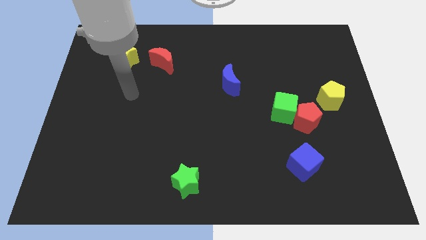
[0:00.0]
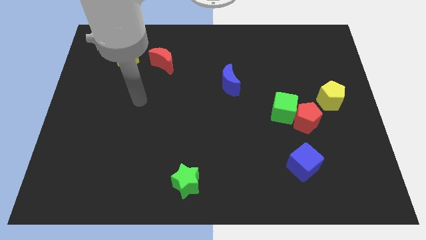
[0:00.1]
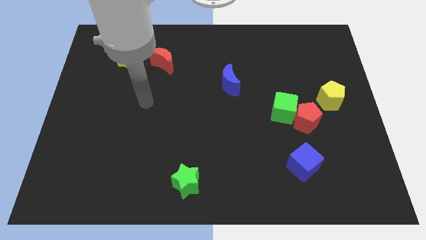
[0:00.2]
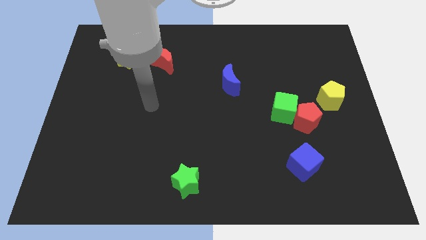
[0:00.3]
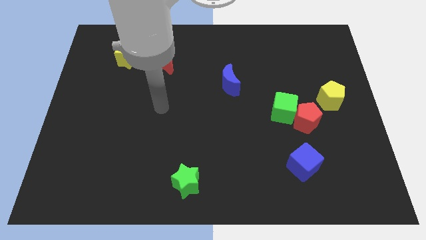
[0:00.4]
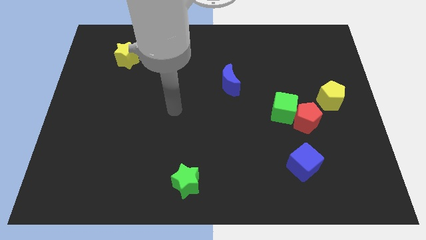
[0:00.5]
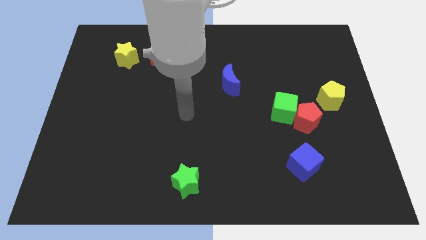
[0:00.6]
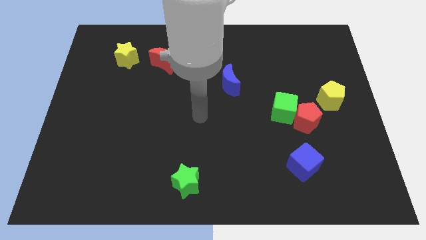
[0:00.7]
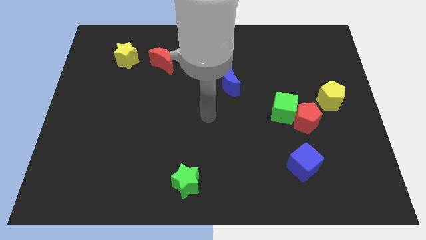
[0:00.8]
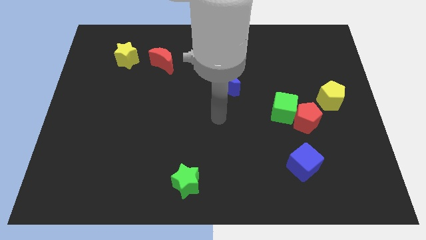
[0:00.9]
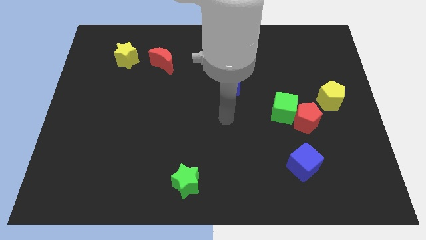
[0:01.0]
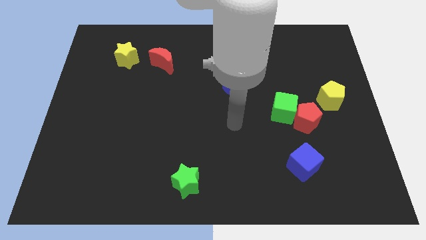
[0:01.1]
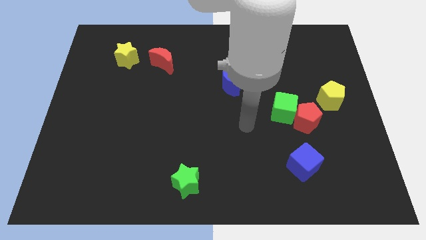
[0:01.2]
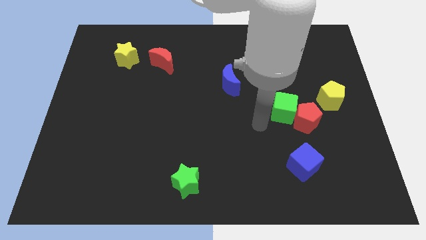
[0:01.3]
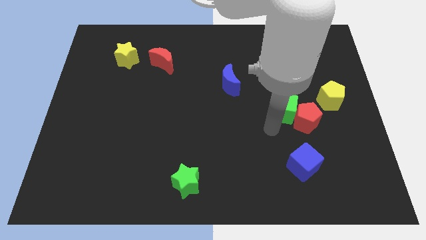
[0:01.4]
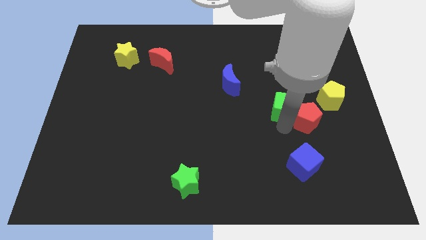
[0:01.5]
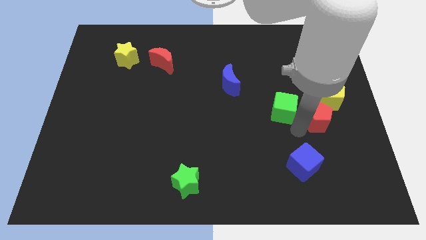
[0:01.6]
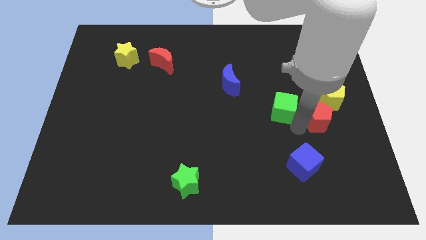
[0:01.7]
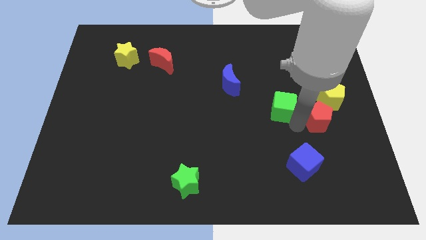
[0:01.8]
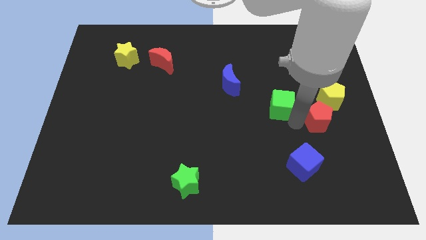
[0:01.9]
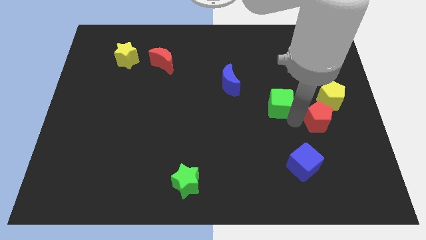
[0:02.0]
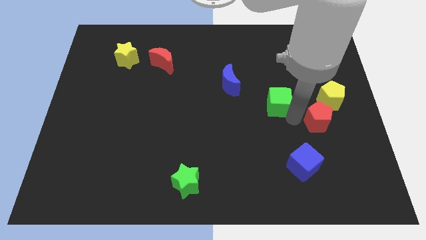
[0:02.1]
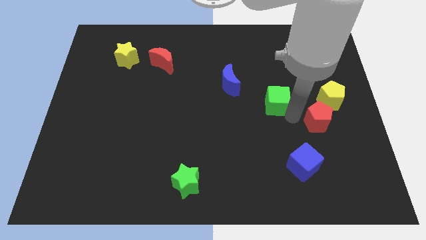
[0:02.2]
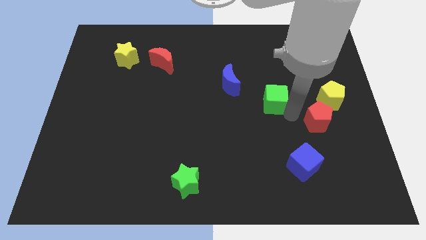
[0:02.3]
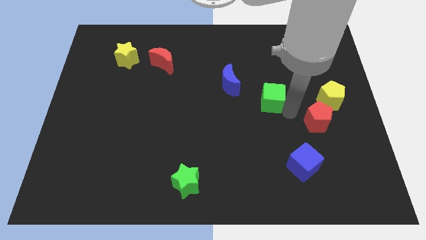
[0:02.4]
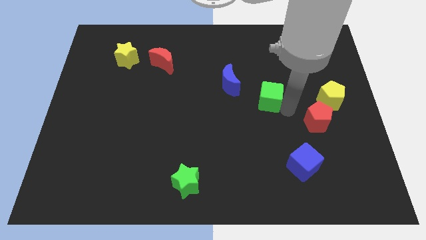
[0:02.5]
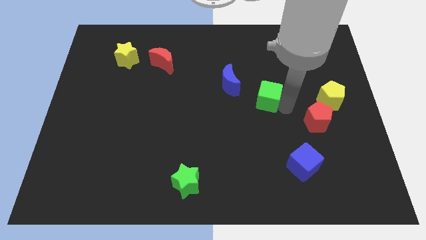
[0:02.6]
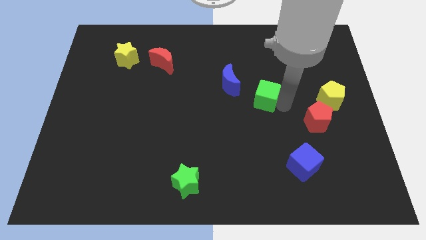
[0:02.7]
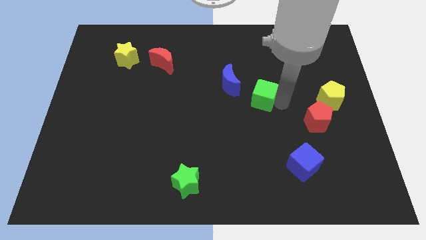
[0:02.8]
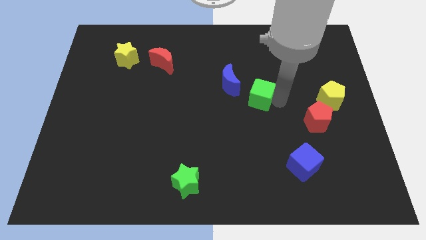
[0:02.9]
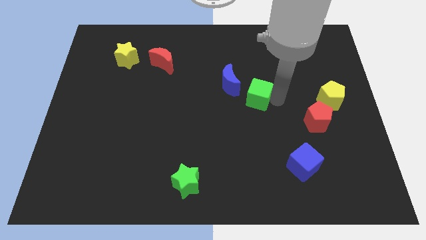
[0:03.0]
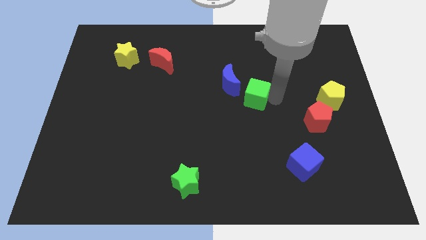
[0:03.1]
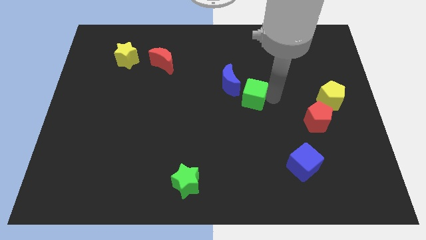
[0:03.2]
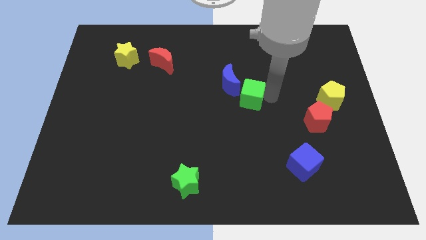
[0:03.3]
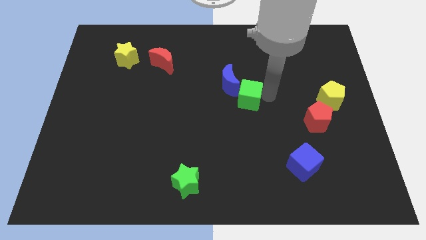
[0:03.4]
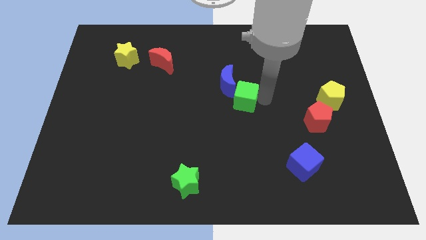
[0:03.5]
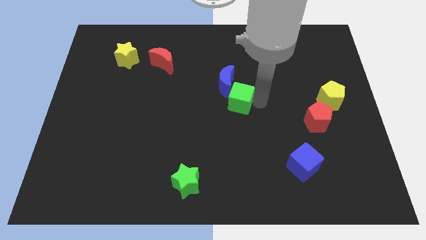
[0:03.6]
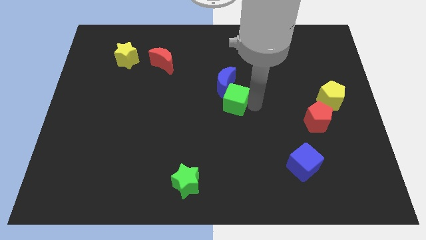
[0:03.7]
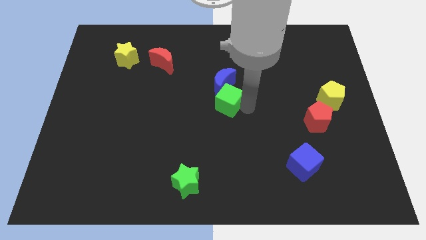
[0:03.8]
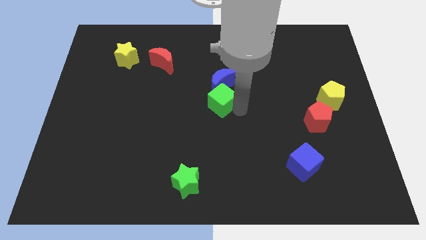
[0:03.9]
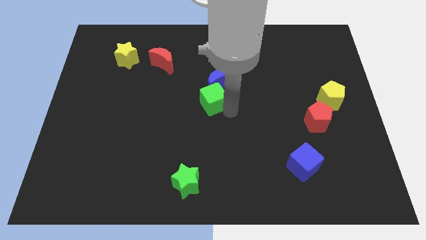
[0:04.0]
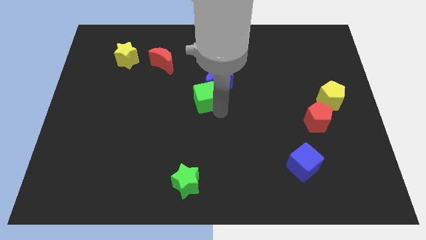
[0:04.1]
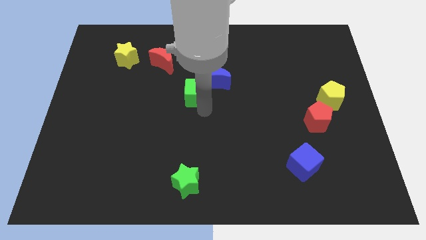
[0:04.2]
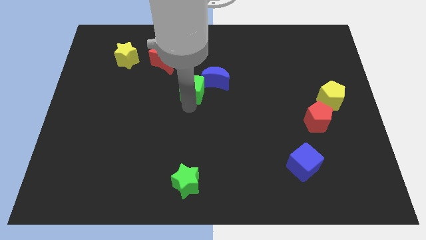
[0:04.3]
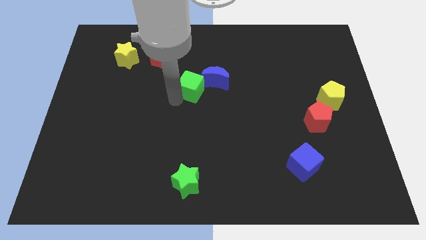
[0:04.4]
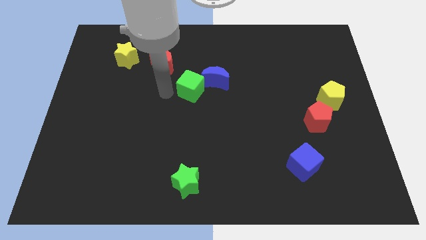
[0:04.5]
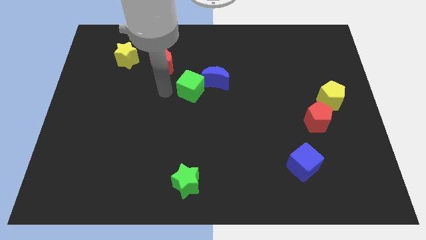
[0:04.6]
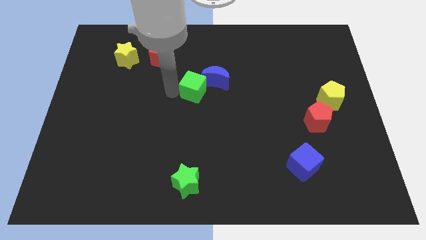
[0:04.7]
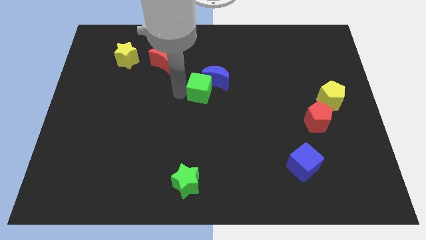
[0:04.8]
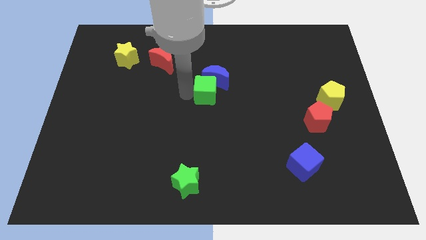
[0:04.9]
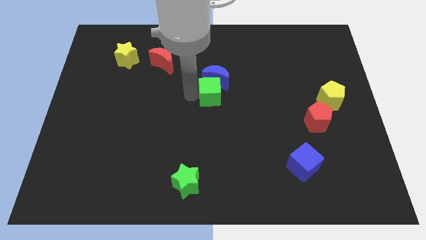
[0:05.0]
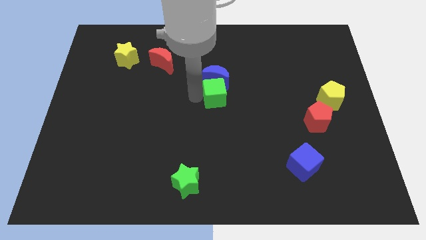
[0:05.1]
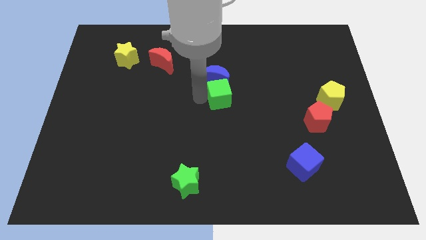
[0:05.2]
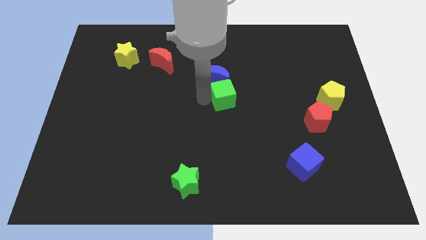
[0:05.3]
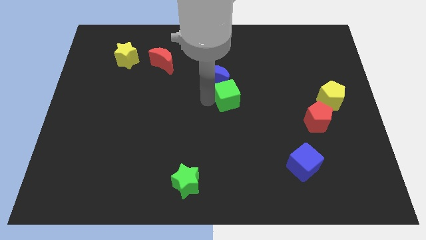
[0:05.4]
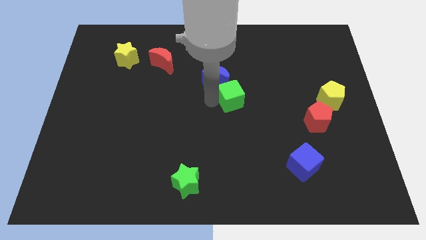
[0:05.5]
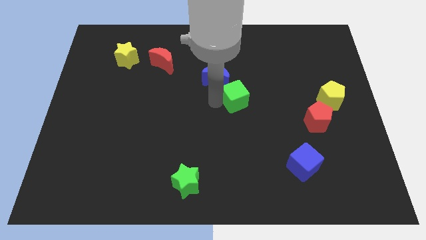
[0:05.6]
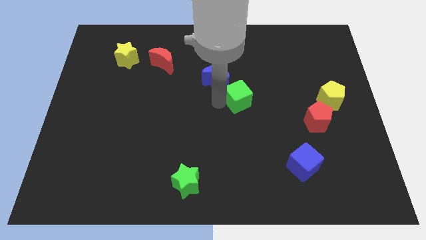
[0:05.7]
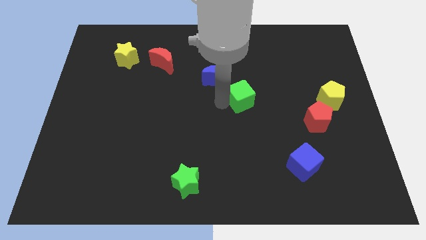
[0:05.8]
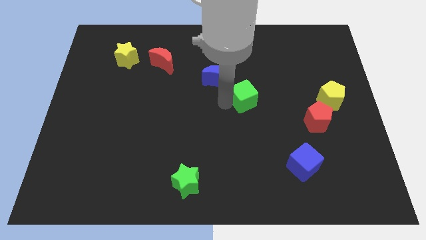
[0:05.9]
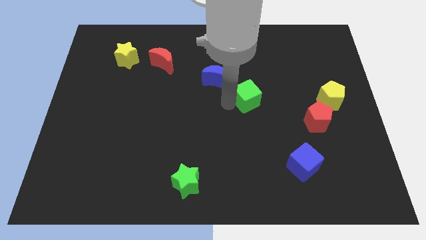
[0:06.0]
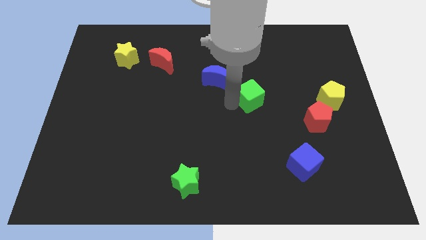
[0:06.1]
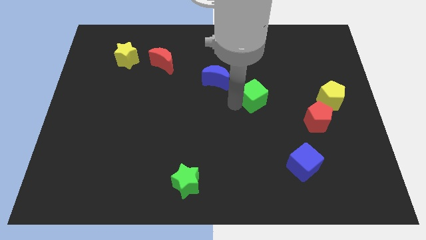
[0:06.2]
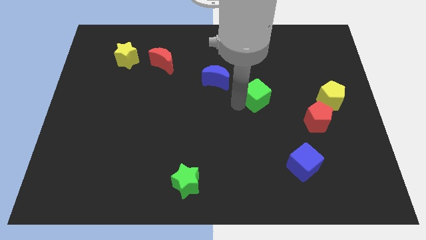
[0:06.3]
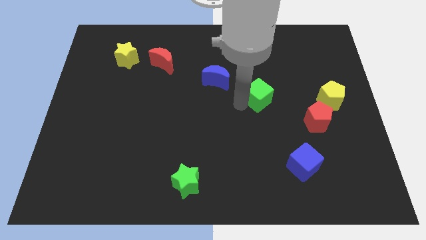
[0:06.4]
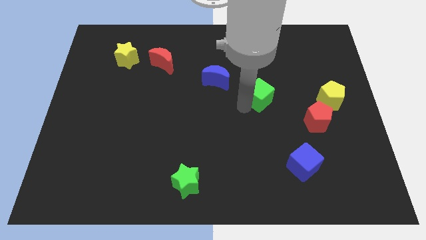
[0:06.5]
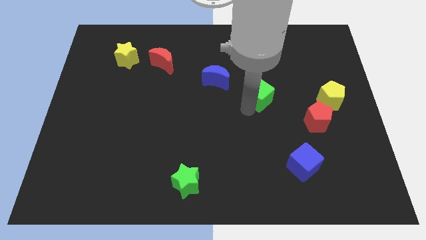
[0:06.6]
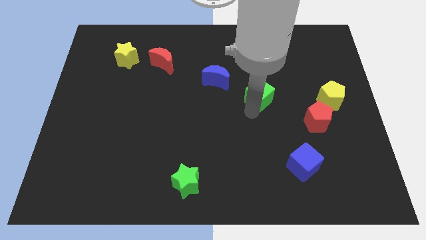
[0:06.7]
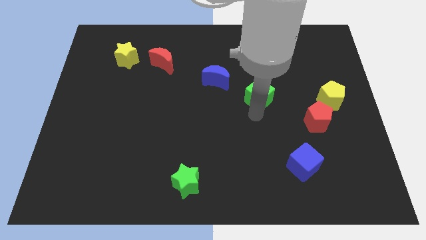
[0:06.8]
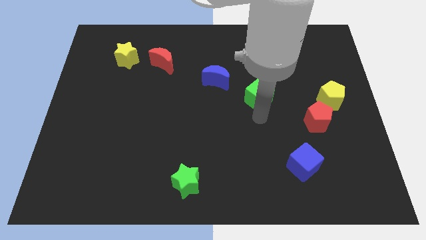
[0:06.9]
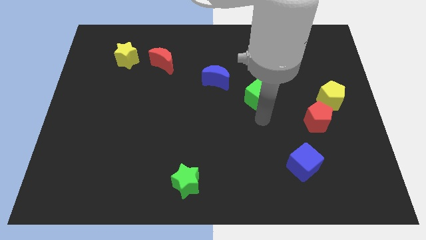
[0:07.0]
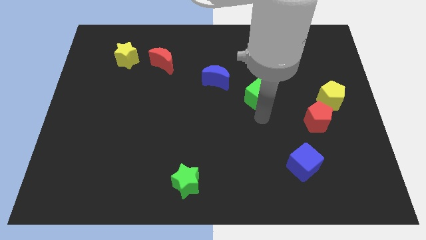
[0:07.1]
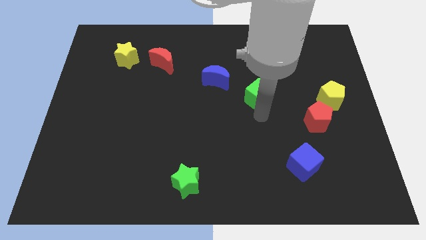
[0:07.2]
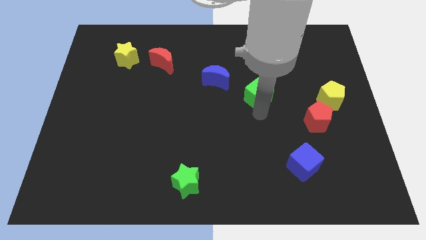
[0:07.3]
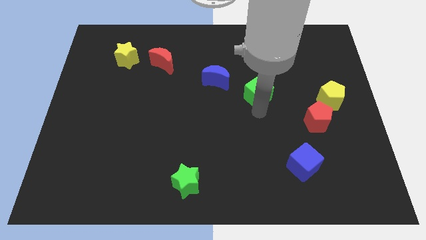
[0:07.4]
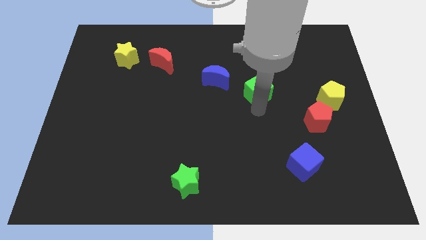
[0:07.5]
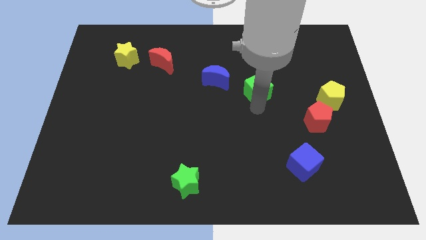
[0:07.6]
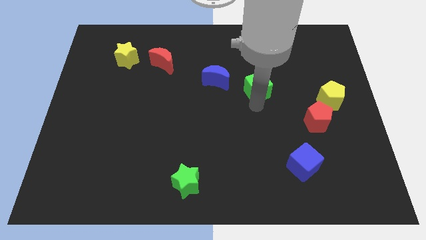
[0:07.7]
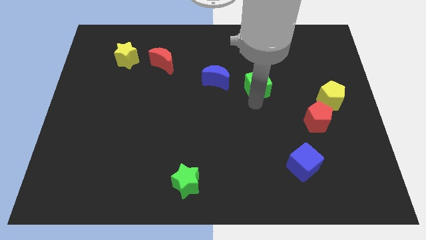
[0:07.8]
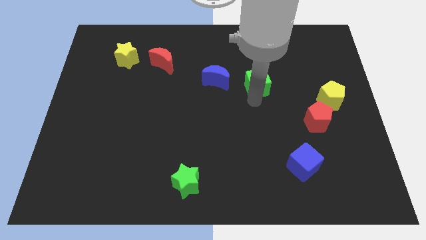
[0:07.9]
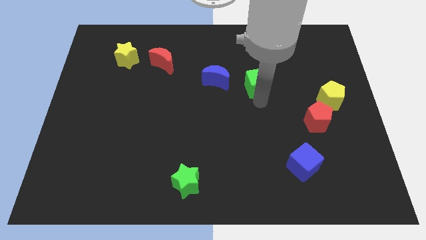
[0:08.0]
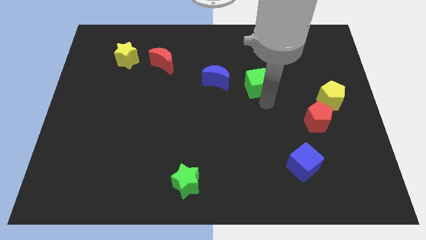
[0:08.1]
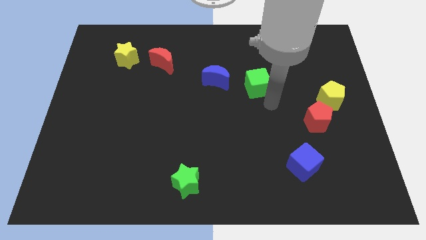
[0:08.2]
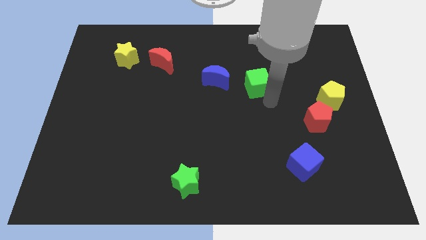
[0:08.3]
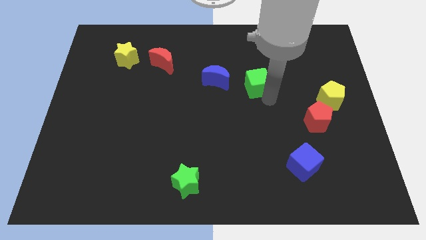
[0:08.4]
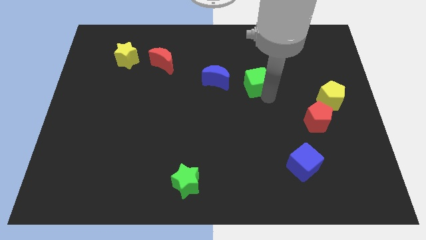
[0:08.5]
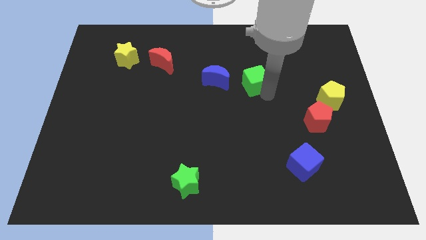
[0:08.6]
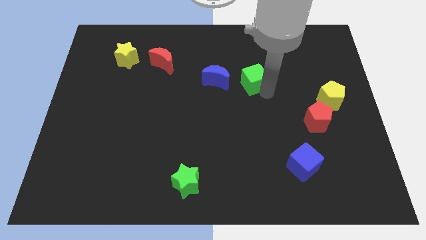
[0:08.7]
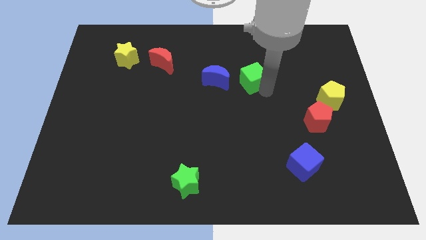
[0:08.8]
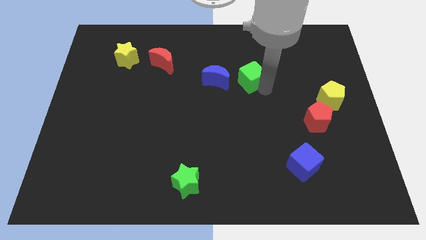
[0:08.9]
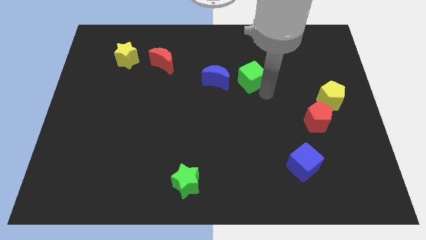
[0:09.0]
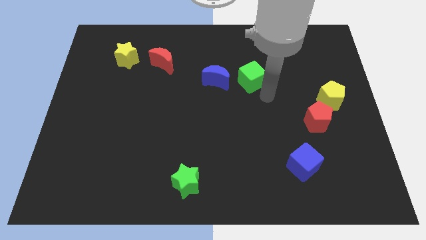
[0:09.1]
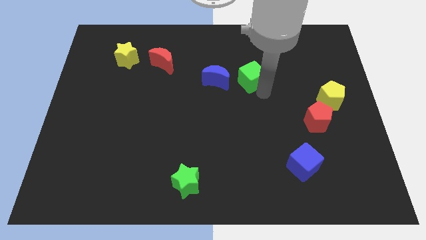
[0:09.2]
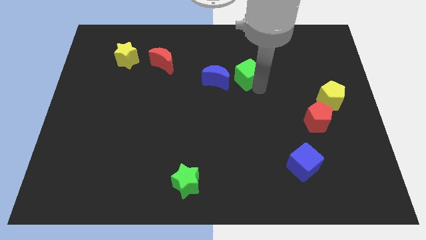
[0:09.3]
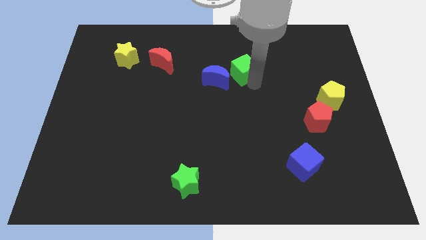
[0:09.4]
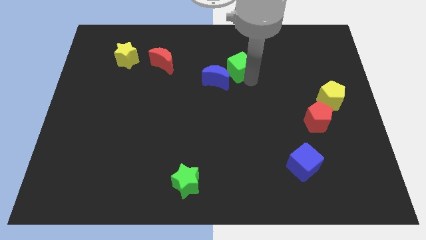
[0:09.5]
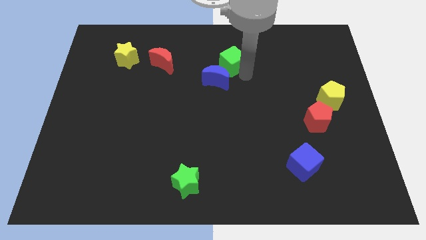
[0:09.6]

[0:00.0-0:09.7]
slide the green cube to the top side of the blue moon
